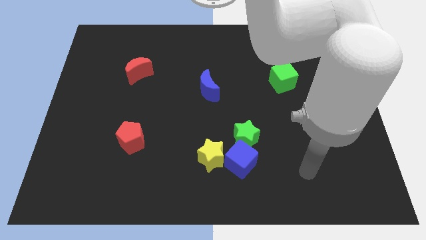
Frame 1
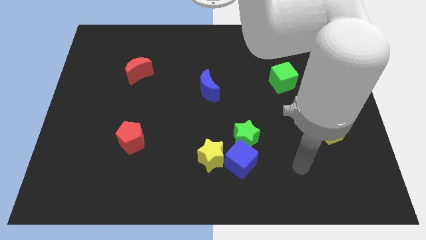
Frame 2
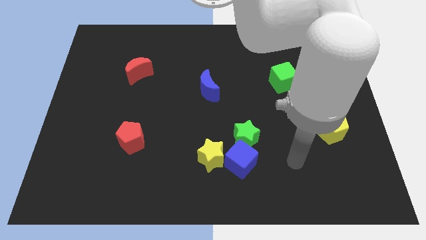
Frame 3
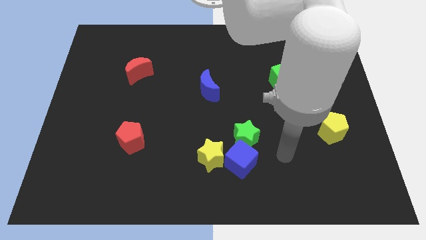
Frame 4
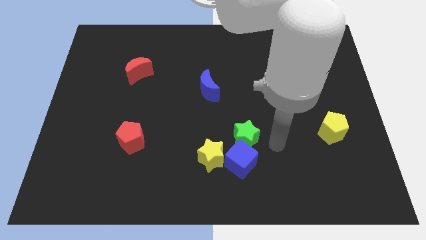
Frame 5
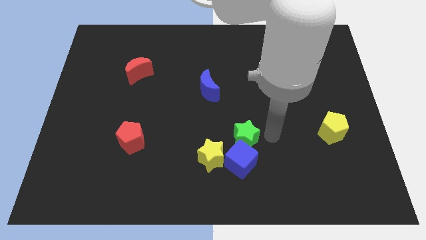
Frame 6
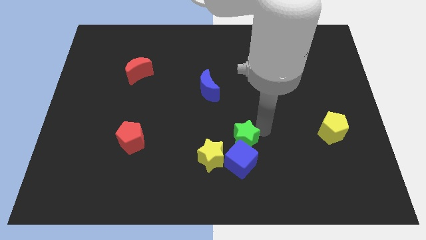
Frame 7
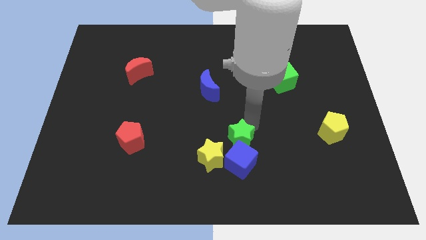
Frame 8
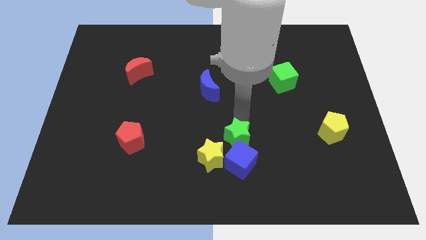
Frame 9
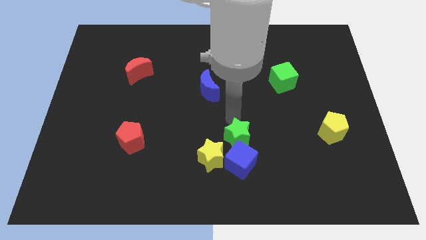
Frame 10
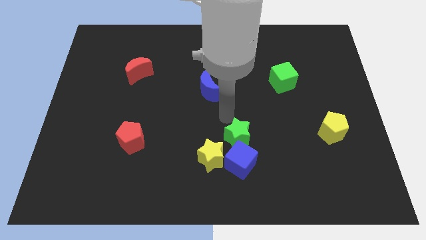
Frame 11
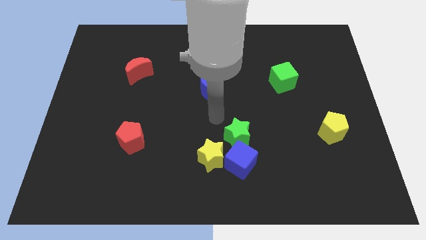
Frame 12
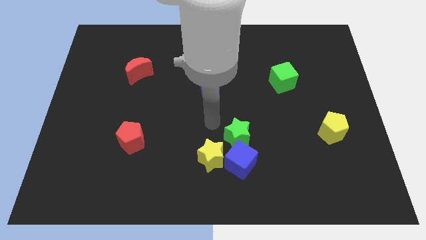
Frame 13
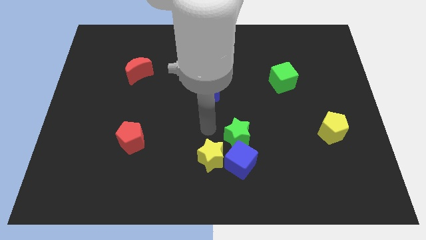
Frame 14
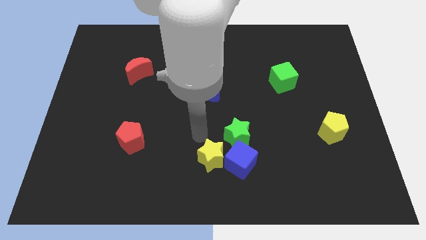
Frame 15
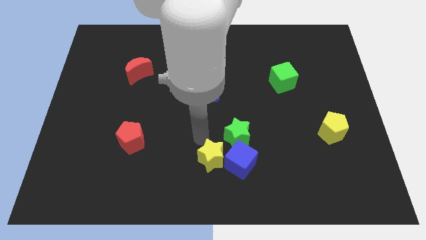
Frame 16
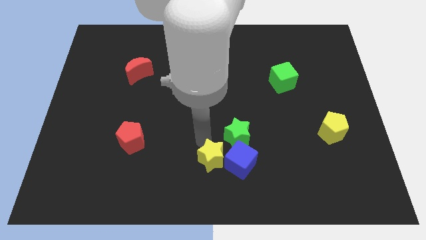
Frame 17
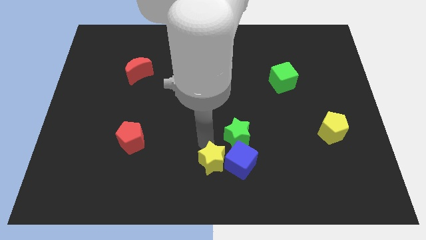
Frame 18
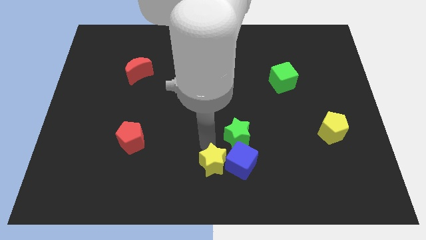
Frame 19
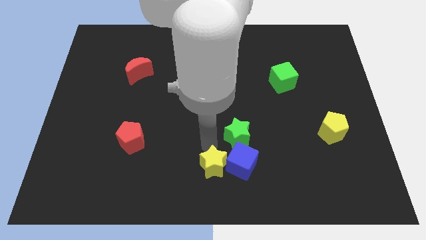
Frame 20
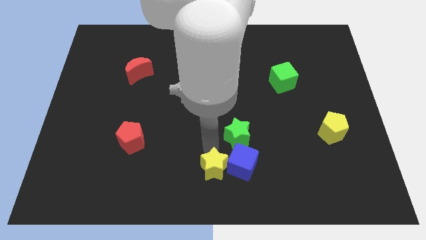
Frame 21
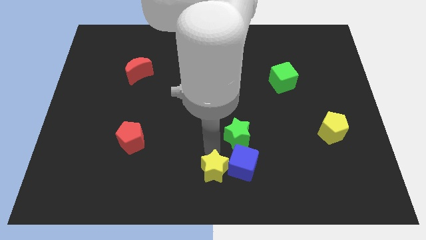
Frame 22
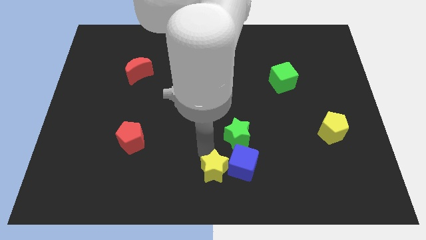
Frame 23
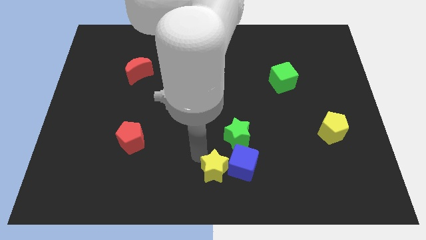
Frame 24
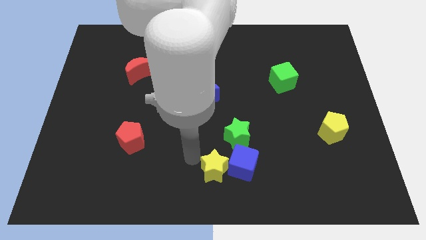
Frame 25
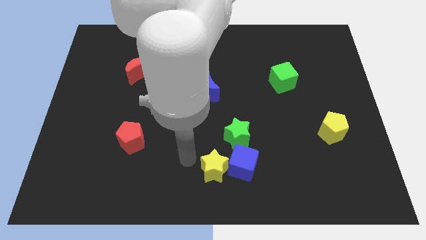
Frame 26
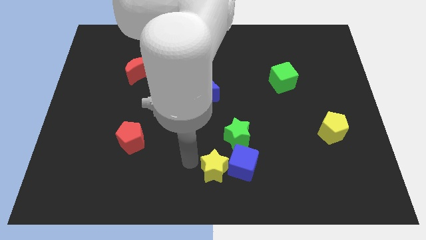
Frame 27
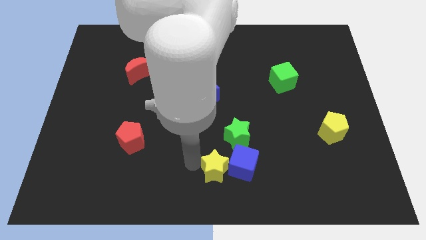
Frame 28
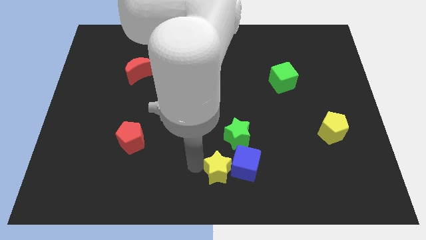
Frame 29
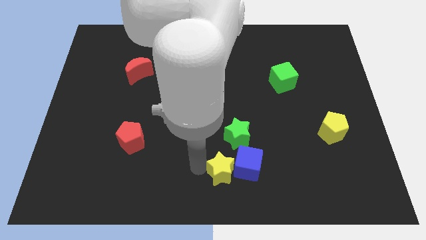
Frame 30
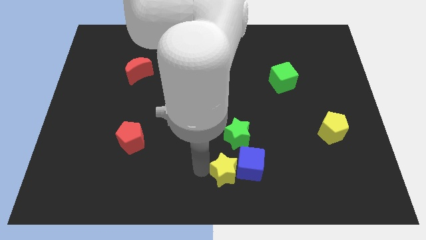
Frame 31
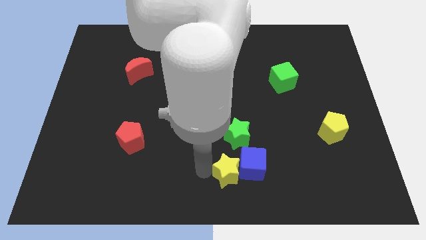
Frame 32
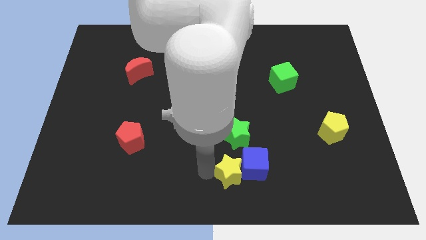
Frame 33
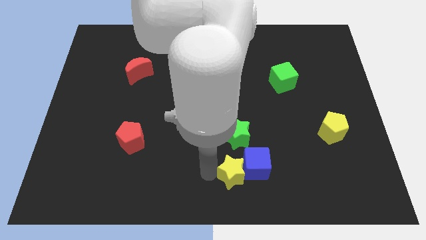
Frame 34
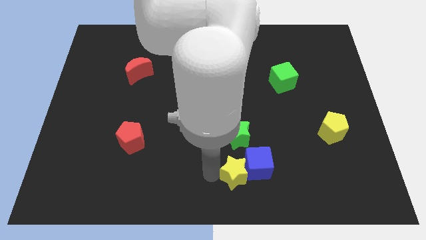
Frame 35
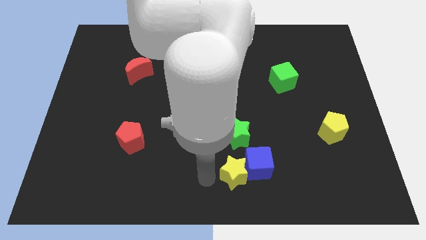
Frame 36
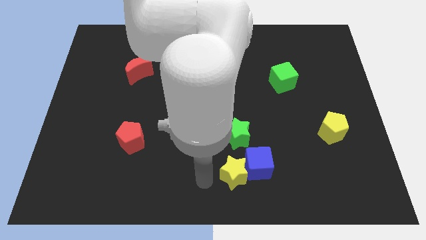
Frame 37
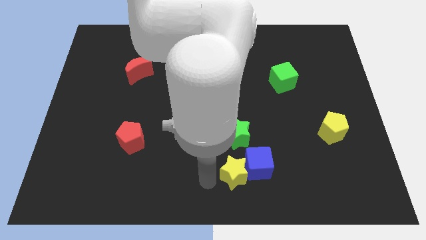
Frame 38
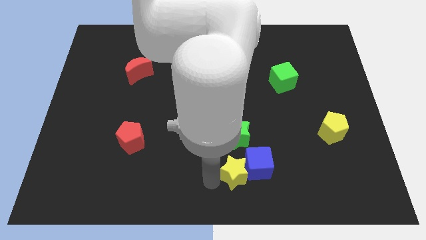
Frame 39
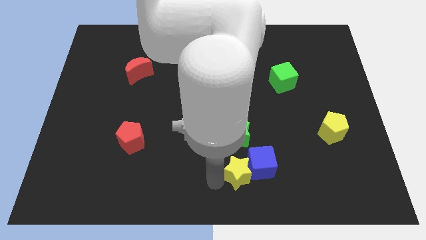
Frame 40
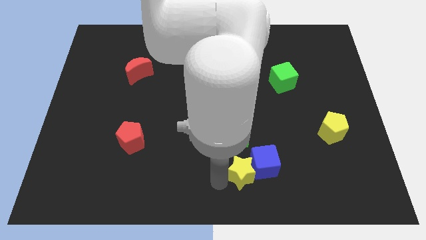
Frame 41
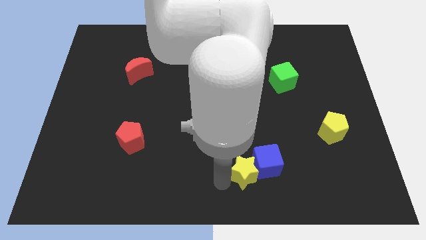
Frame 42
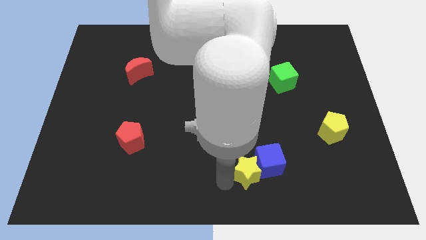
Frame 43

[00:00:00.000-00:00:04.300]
slightly move the yellow star to the right

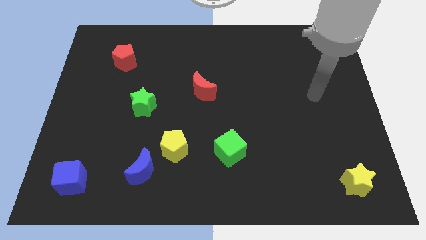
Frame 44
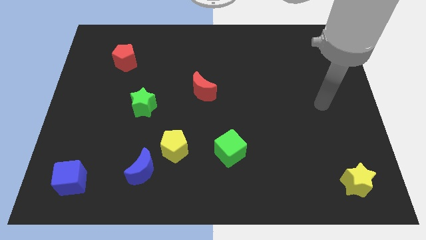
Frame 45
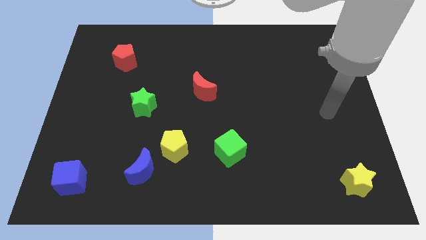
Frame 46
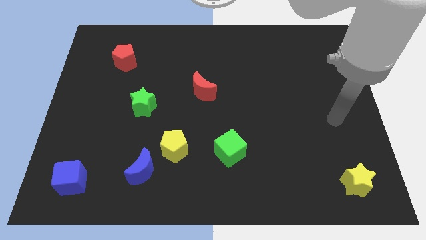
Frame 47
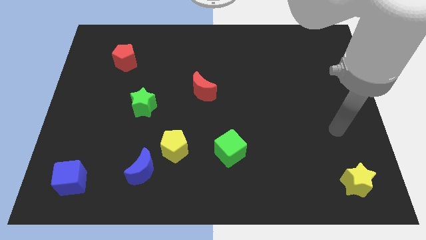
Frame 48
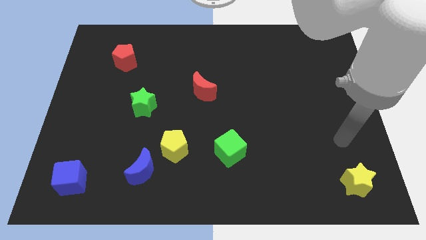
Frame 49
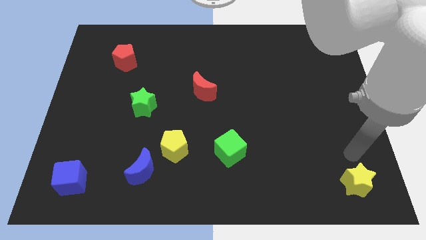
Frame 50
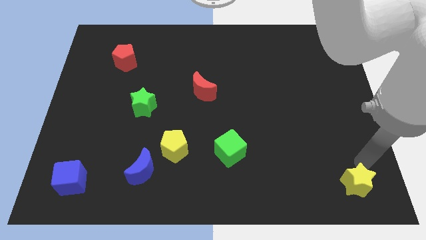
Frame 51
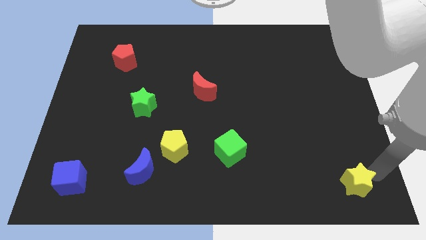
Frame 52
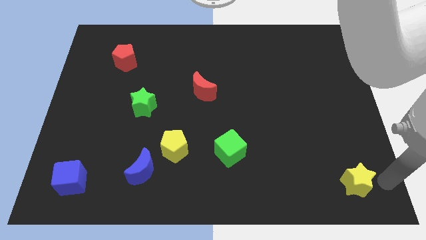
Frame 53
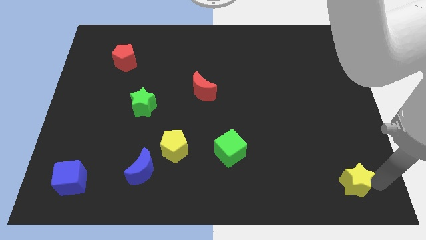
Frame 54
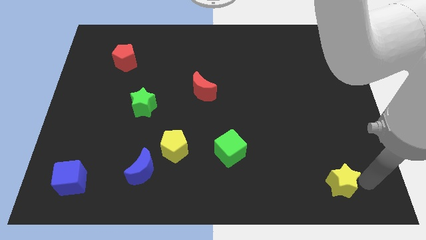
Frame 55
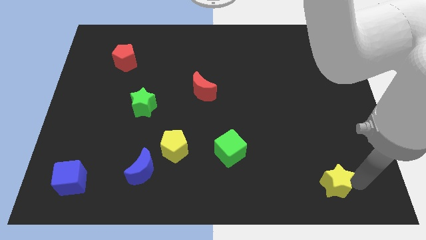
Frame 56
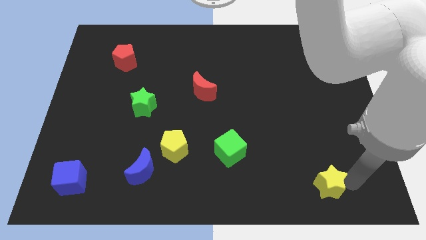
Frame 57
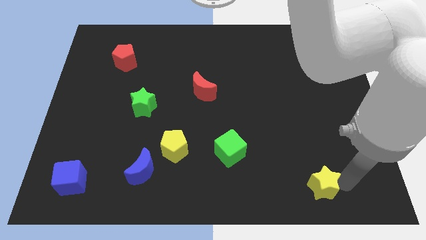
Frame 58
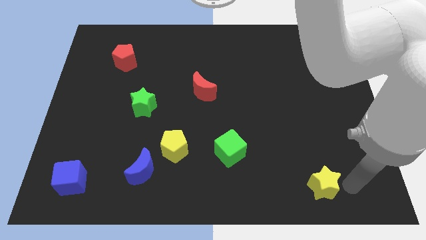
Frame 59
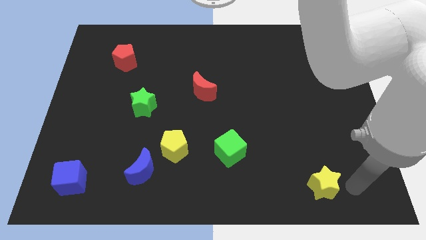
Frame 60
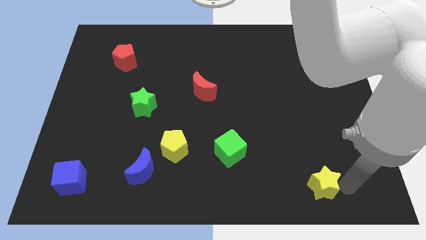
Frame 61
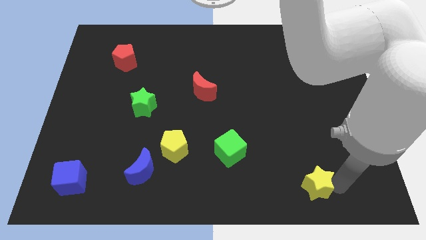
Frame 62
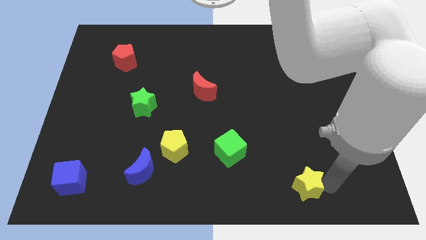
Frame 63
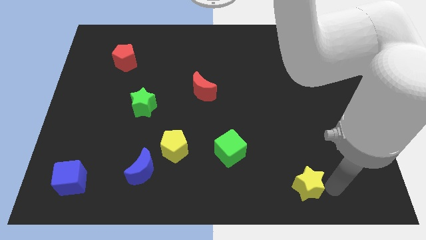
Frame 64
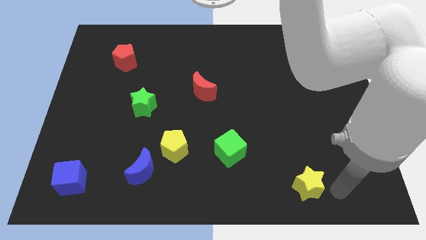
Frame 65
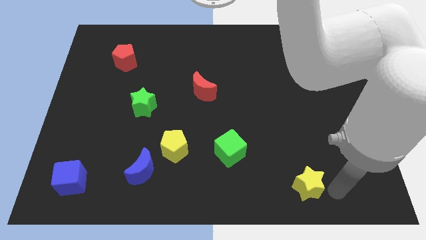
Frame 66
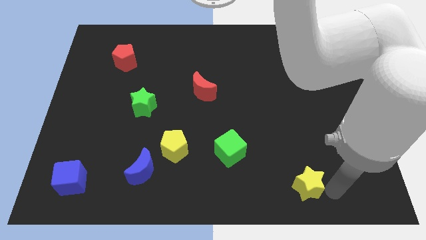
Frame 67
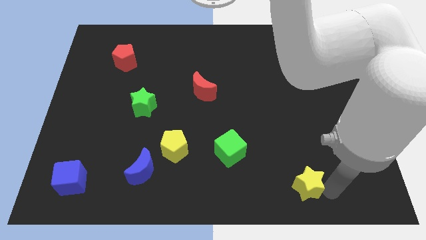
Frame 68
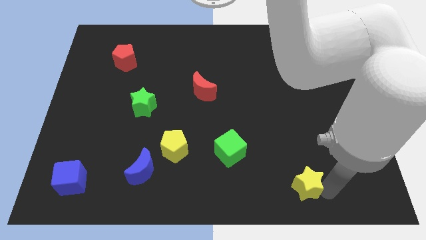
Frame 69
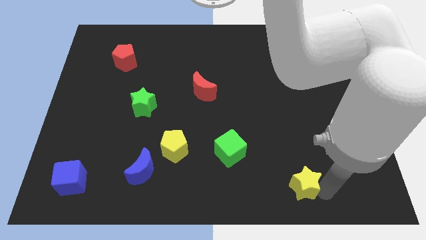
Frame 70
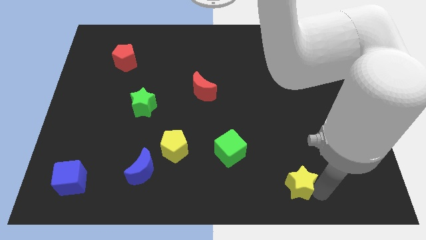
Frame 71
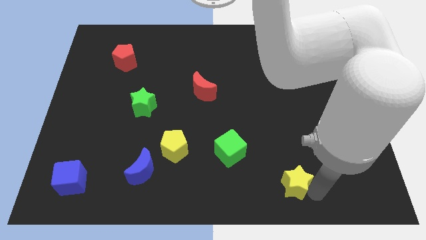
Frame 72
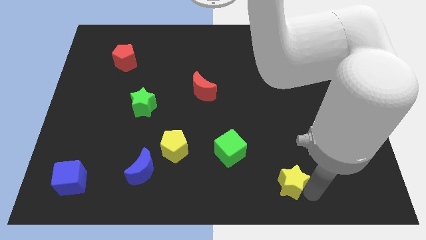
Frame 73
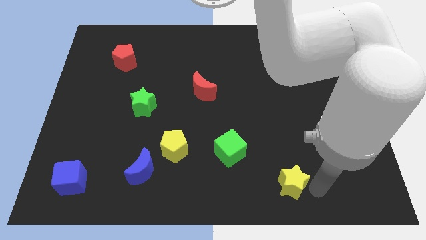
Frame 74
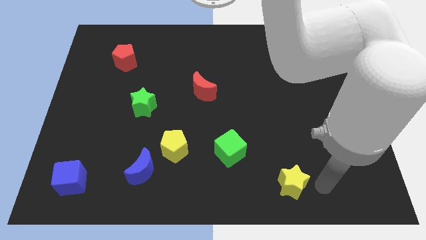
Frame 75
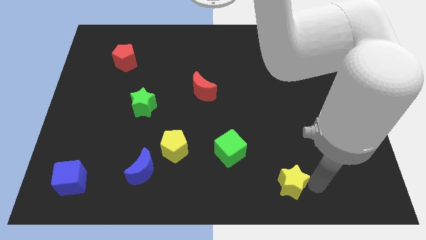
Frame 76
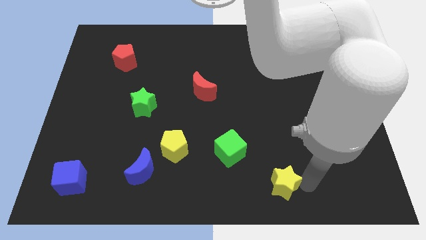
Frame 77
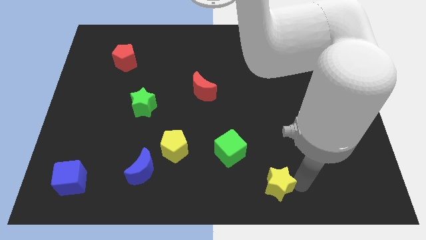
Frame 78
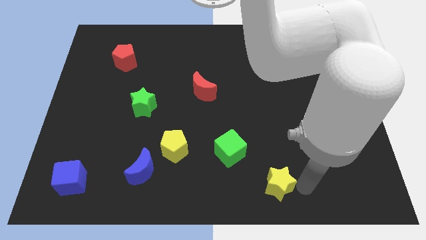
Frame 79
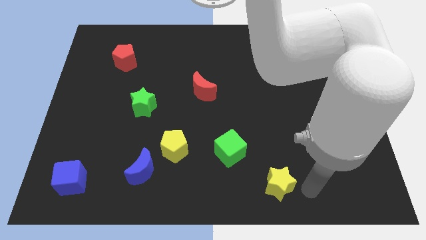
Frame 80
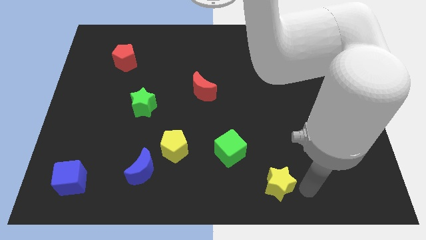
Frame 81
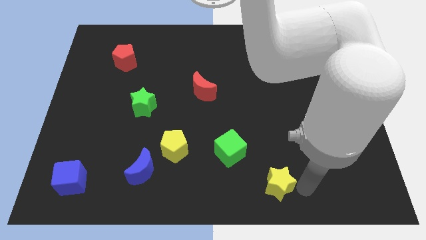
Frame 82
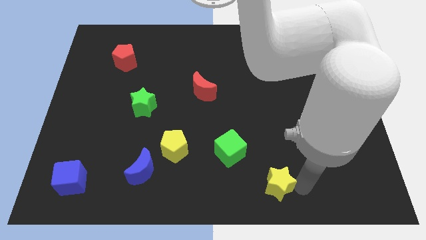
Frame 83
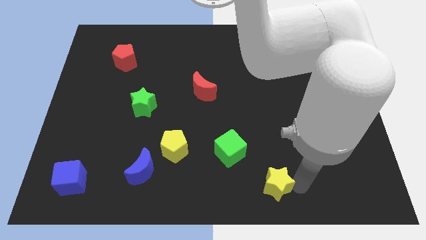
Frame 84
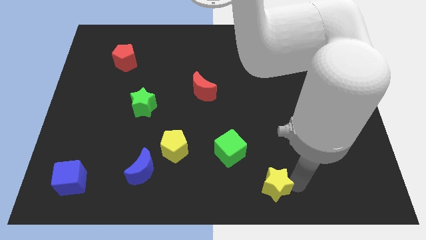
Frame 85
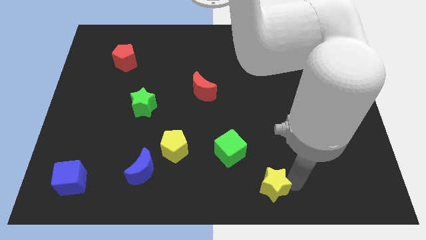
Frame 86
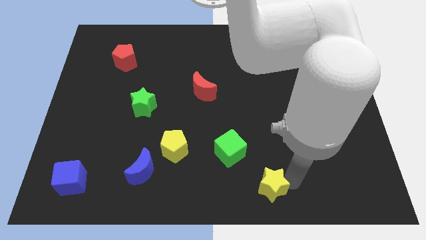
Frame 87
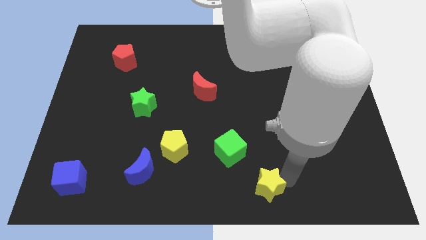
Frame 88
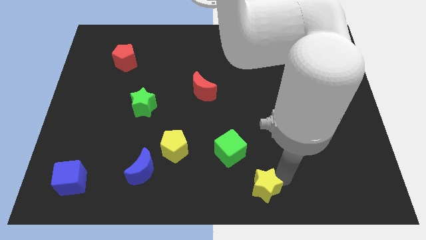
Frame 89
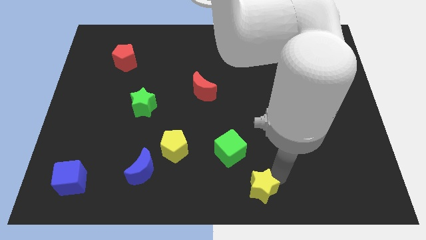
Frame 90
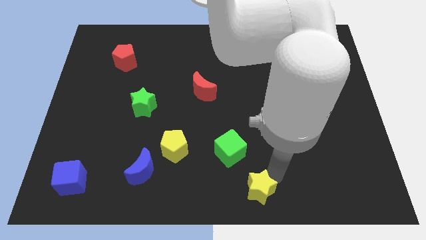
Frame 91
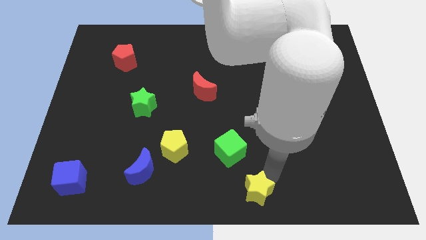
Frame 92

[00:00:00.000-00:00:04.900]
slide the yellow star left
